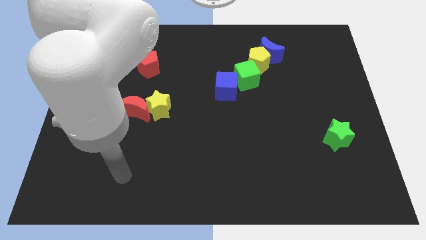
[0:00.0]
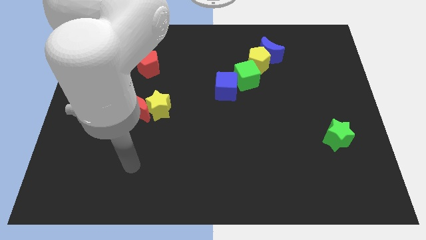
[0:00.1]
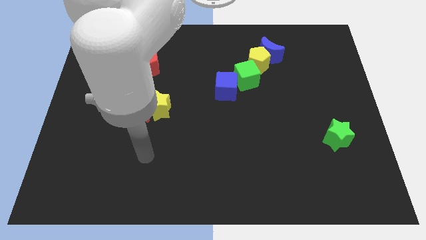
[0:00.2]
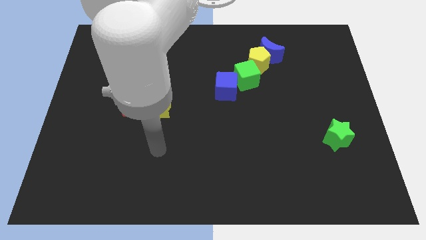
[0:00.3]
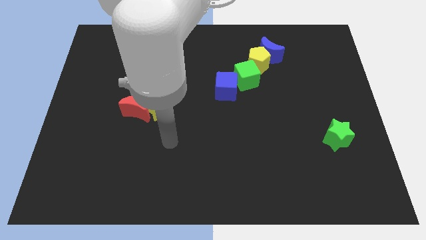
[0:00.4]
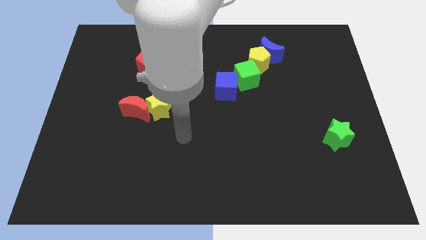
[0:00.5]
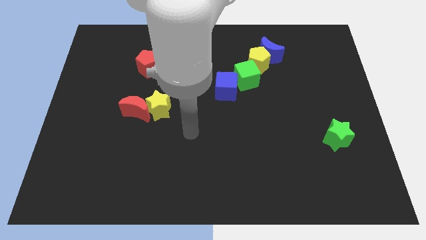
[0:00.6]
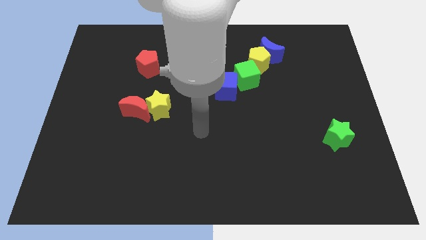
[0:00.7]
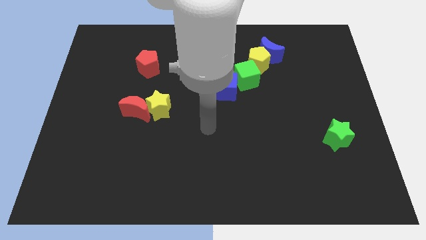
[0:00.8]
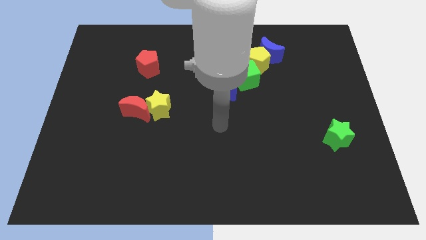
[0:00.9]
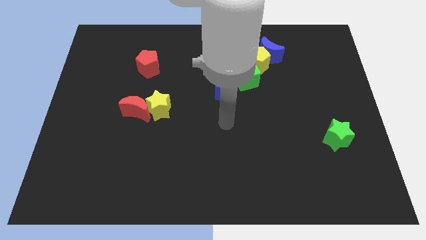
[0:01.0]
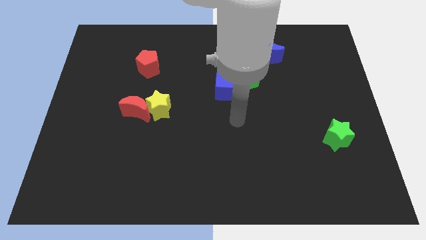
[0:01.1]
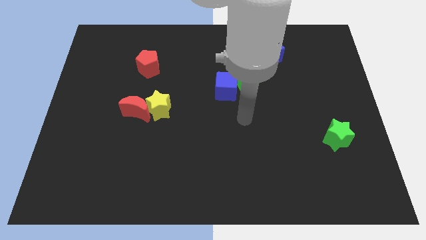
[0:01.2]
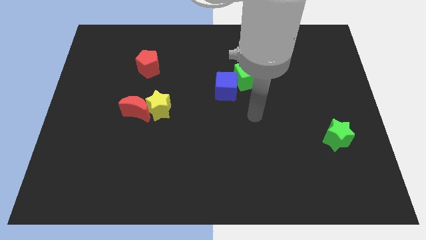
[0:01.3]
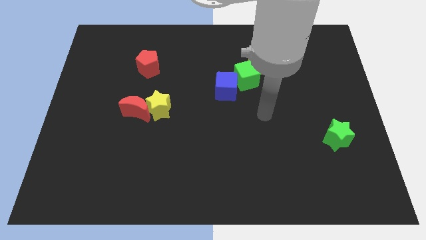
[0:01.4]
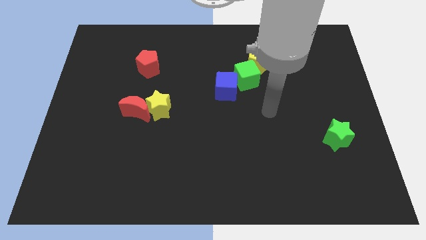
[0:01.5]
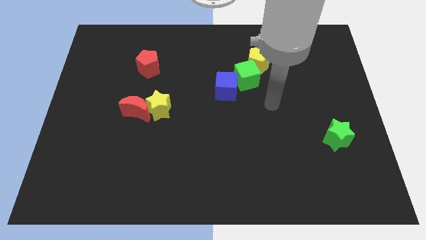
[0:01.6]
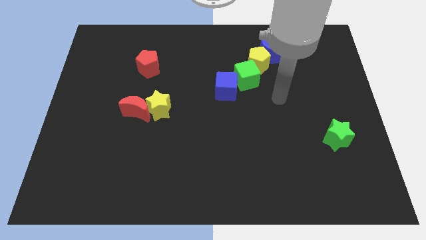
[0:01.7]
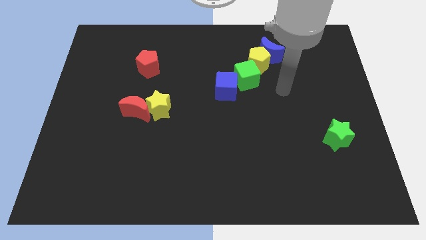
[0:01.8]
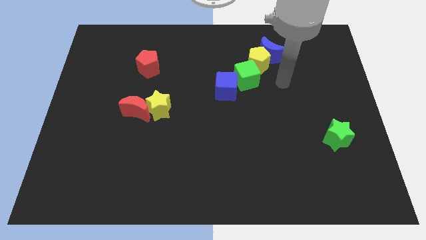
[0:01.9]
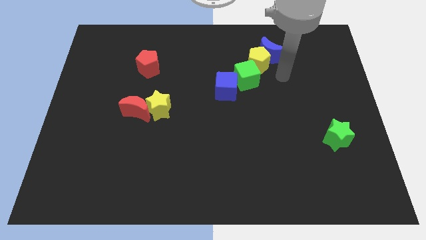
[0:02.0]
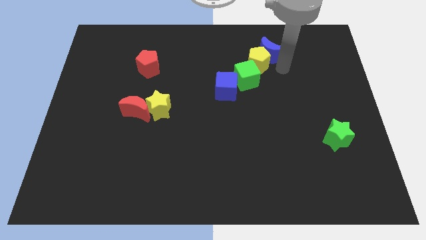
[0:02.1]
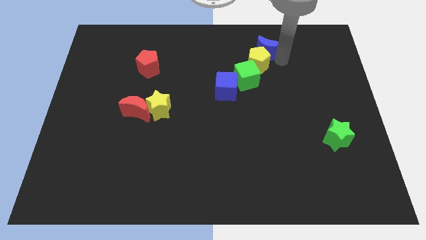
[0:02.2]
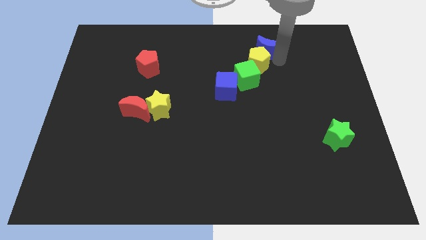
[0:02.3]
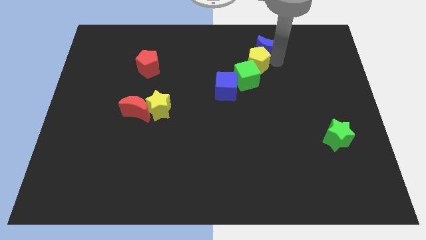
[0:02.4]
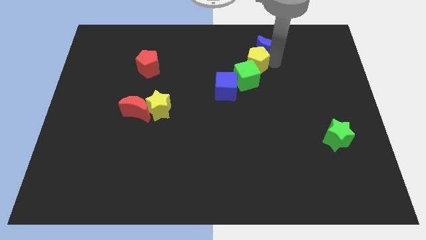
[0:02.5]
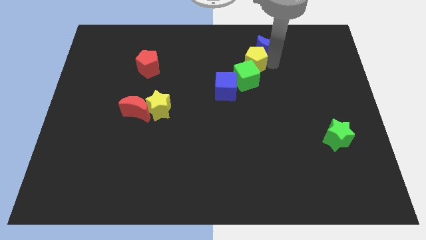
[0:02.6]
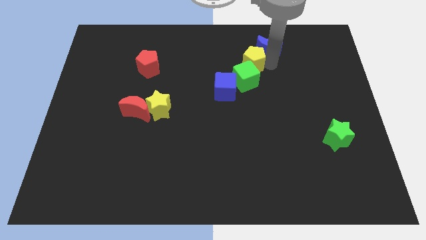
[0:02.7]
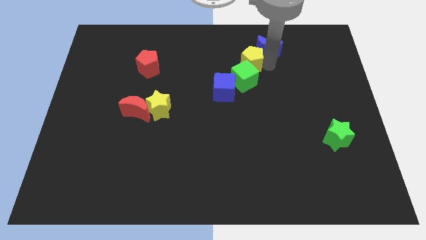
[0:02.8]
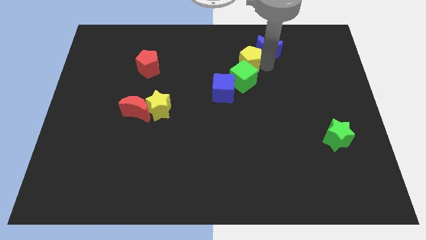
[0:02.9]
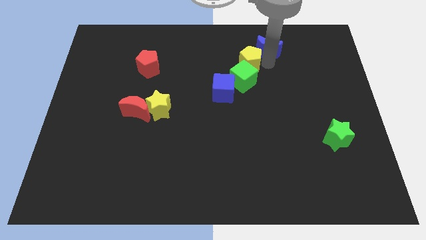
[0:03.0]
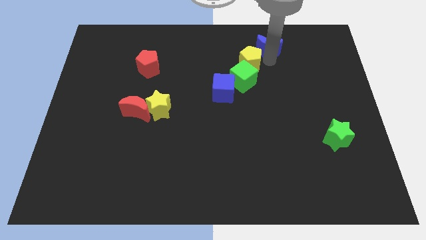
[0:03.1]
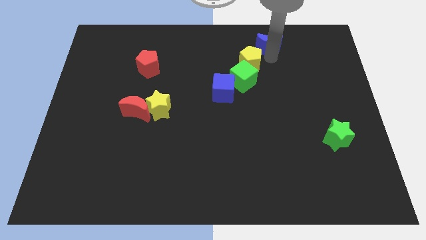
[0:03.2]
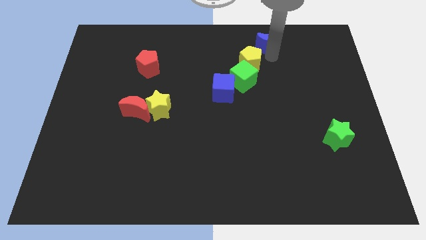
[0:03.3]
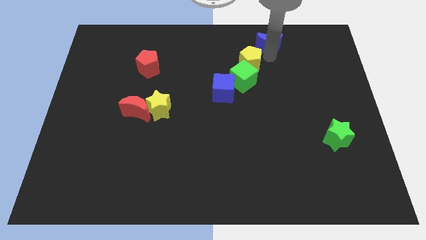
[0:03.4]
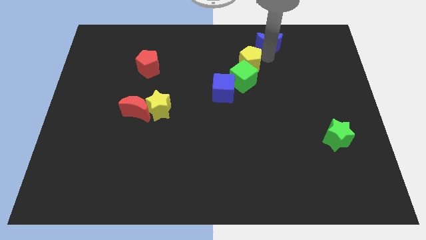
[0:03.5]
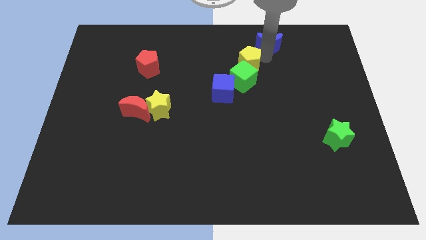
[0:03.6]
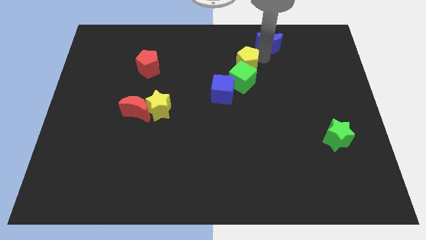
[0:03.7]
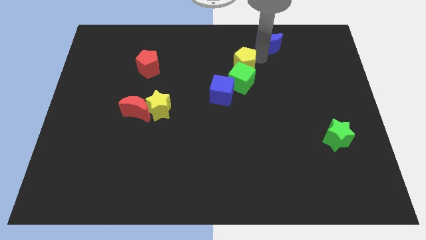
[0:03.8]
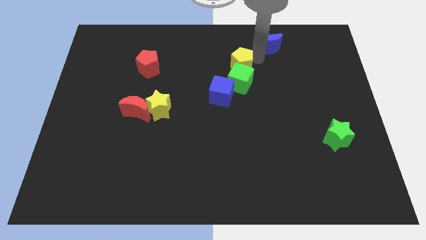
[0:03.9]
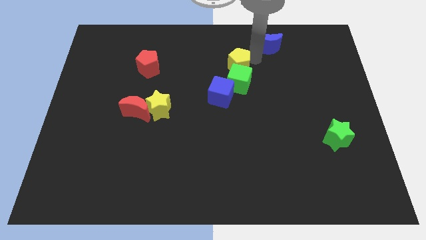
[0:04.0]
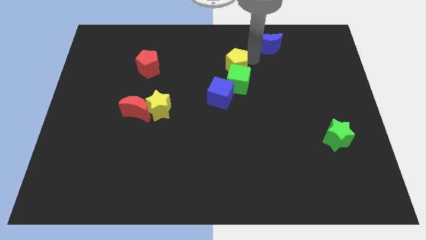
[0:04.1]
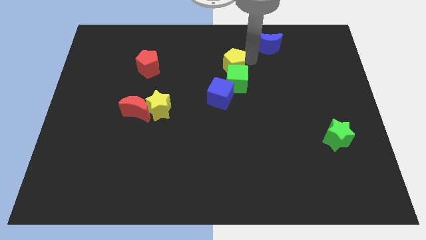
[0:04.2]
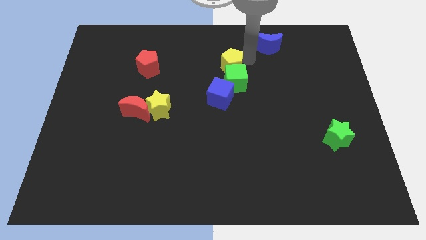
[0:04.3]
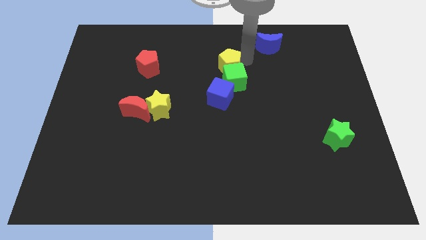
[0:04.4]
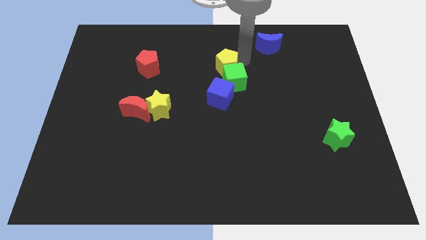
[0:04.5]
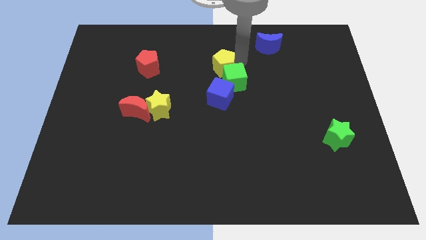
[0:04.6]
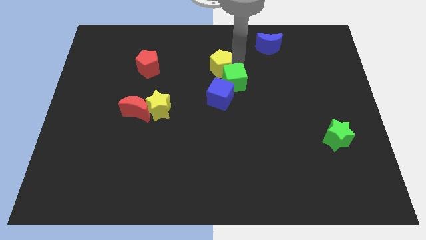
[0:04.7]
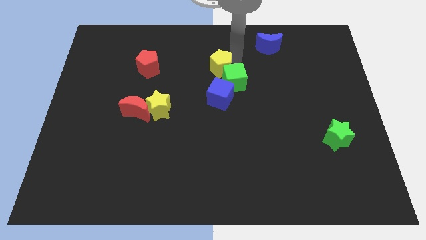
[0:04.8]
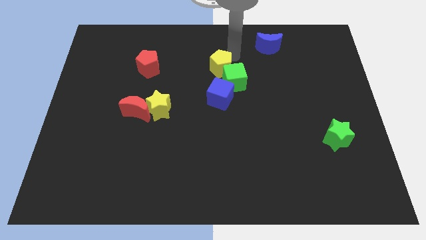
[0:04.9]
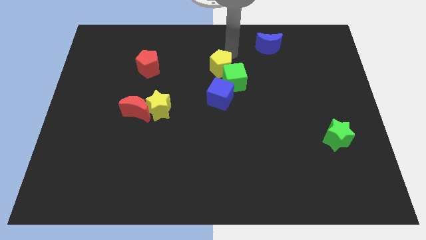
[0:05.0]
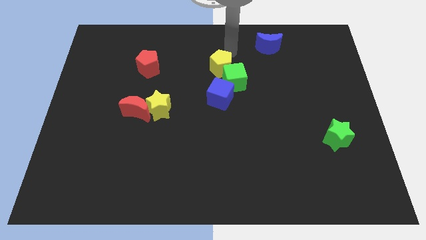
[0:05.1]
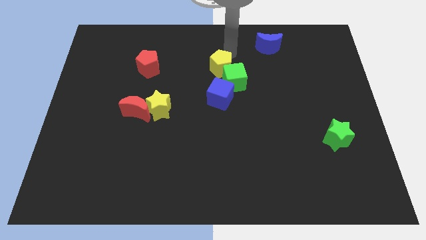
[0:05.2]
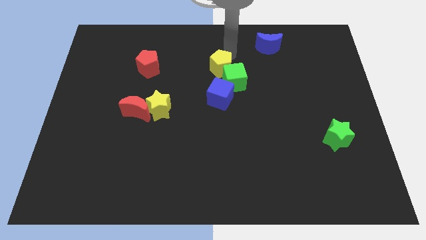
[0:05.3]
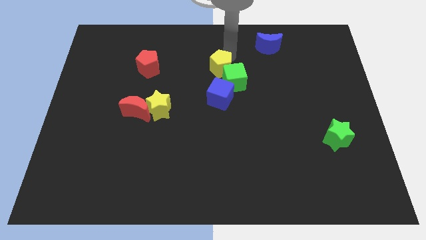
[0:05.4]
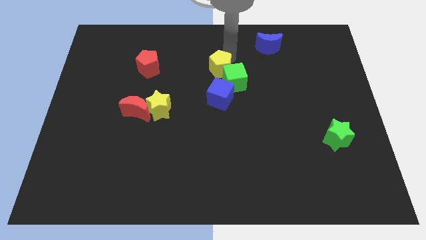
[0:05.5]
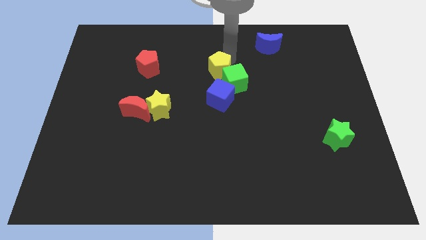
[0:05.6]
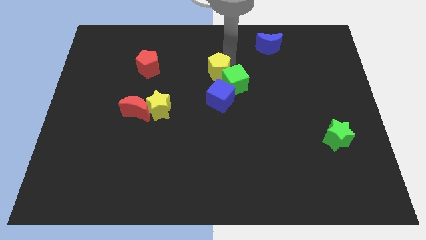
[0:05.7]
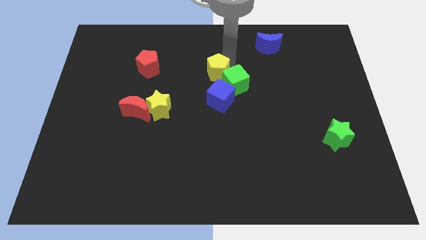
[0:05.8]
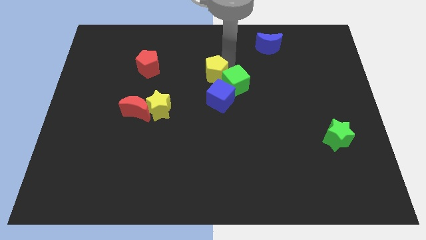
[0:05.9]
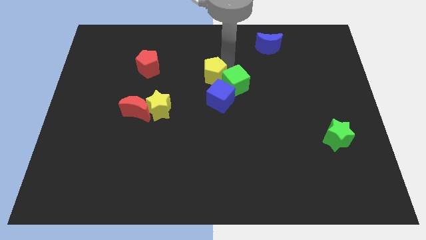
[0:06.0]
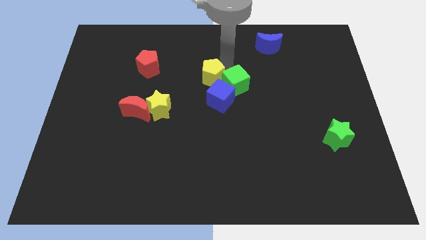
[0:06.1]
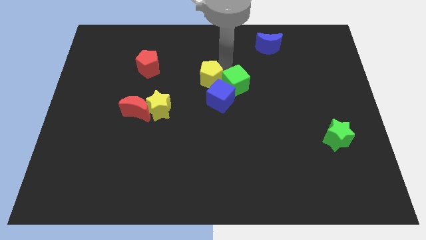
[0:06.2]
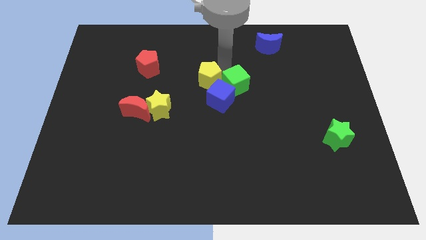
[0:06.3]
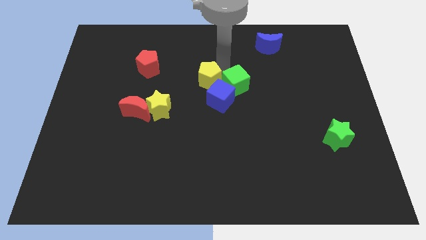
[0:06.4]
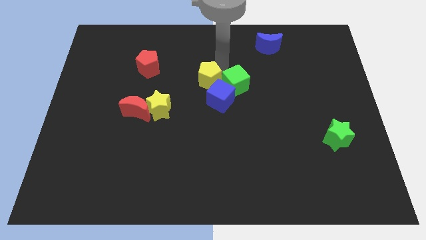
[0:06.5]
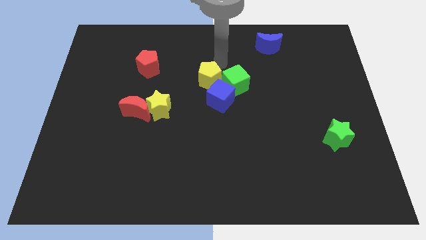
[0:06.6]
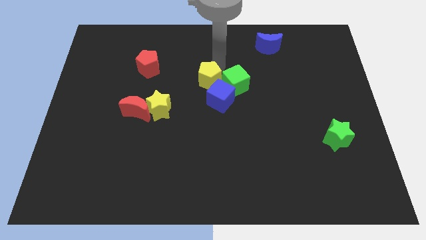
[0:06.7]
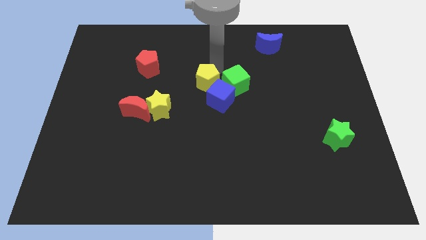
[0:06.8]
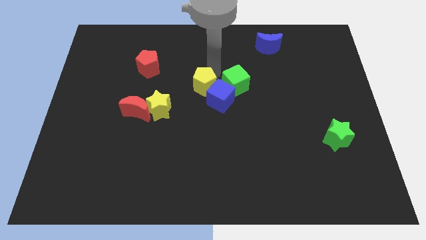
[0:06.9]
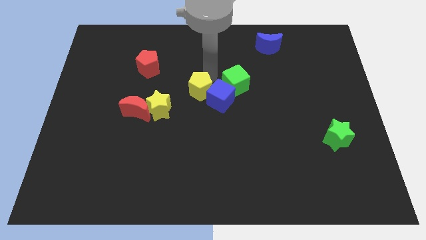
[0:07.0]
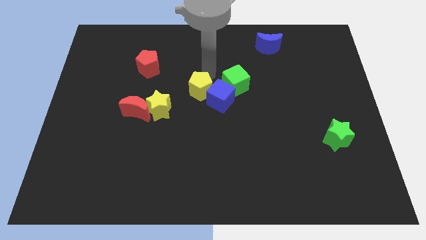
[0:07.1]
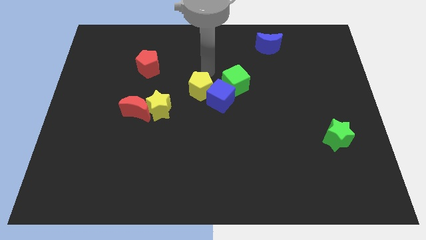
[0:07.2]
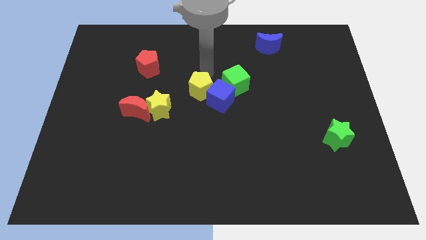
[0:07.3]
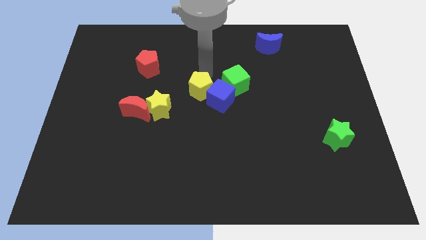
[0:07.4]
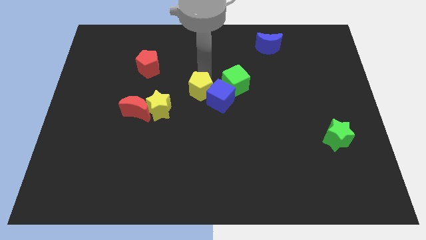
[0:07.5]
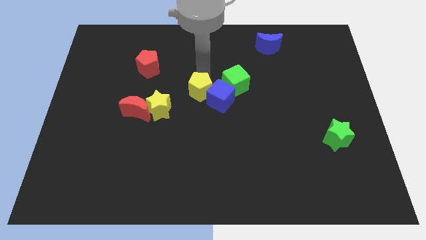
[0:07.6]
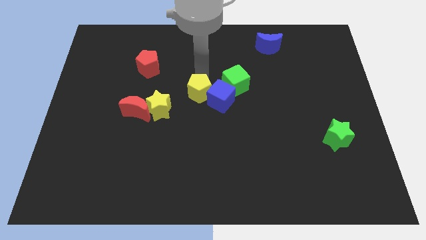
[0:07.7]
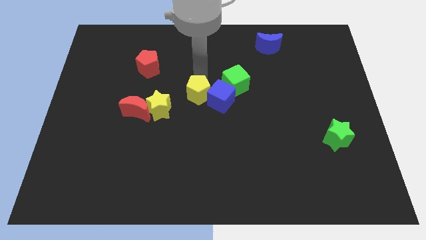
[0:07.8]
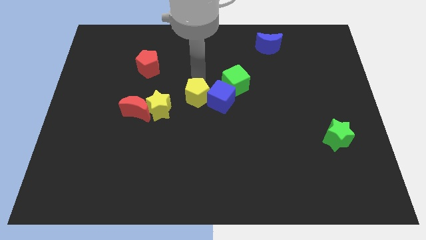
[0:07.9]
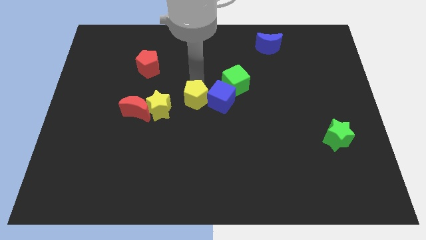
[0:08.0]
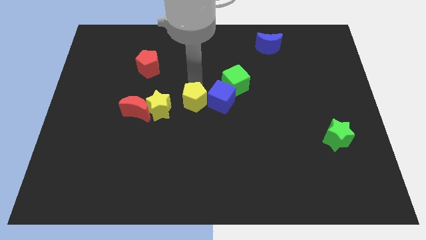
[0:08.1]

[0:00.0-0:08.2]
move the yellow pentagon downwards and then to the left
